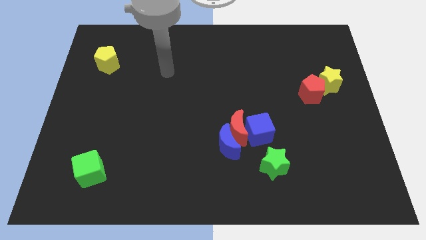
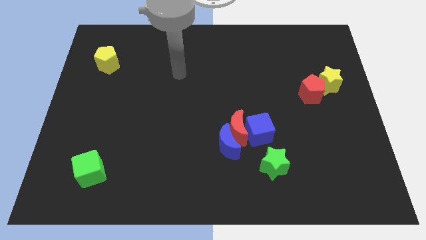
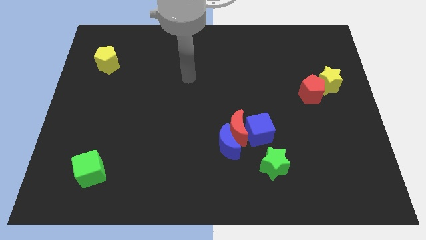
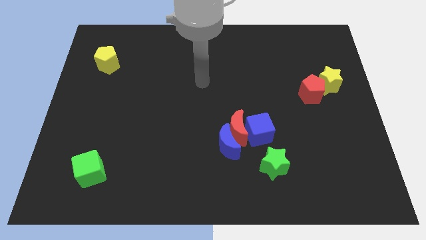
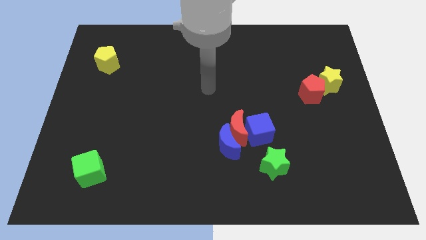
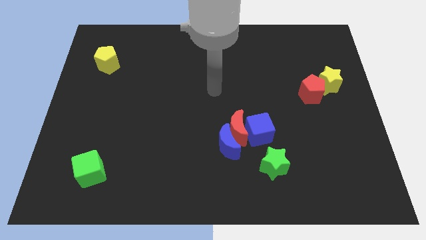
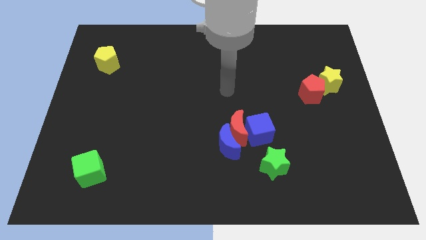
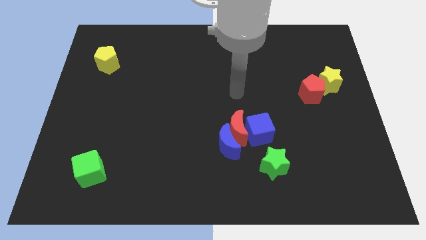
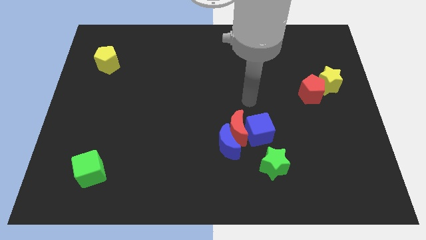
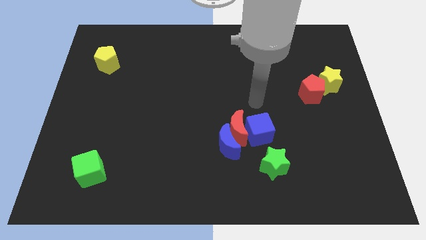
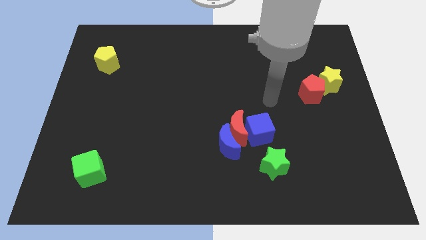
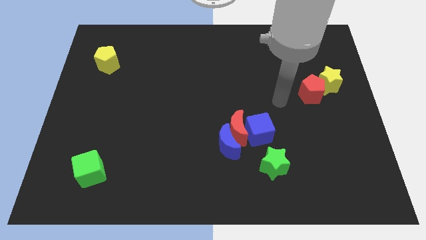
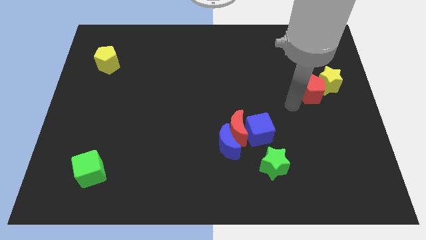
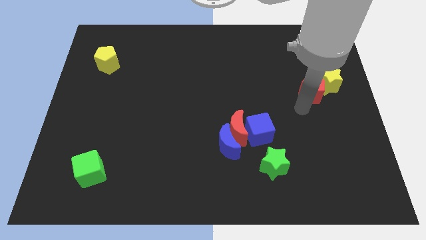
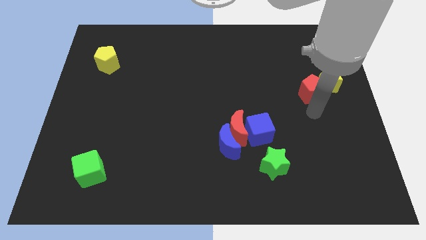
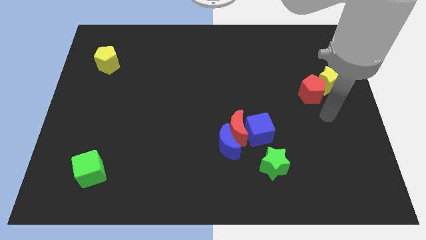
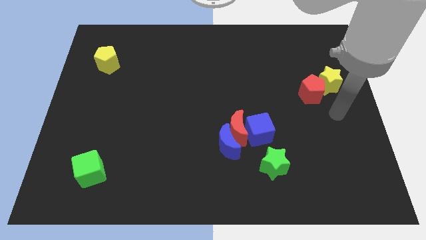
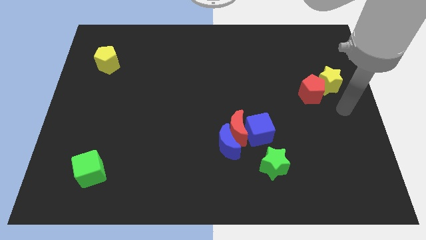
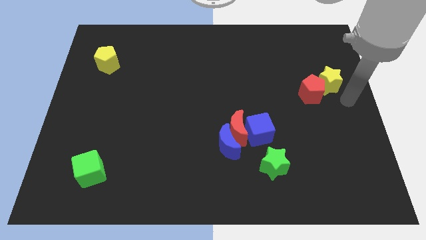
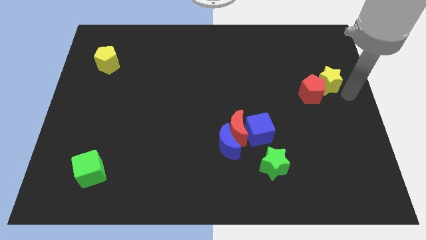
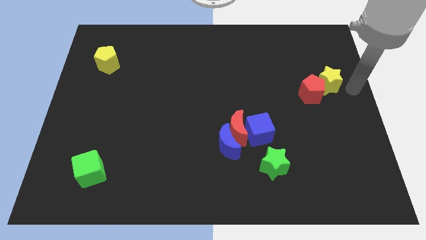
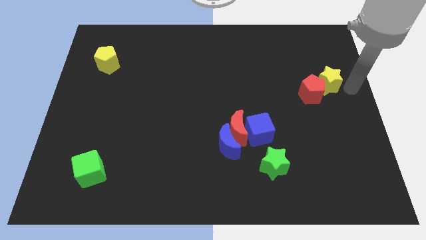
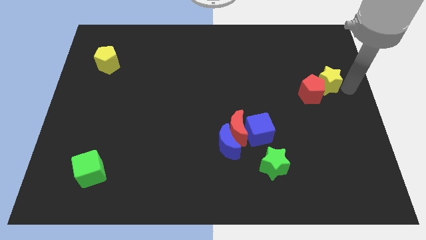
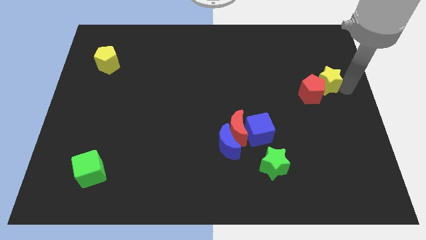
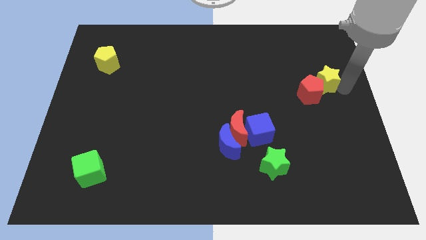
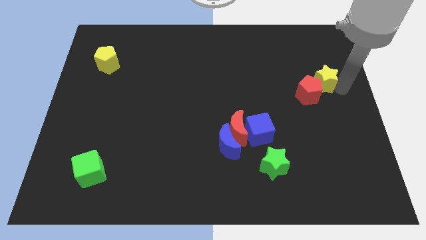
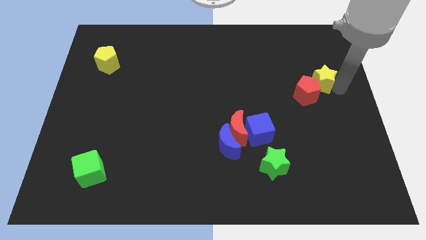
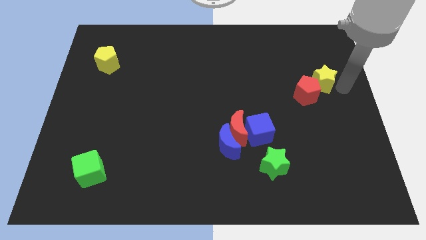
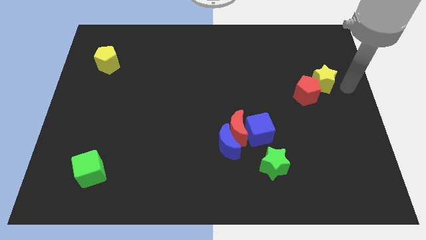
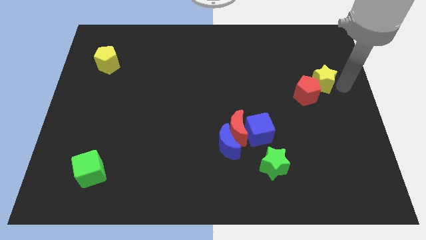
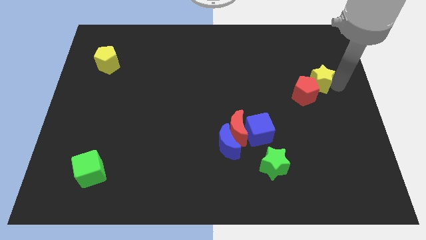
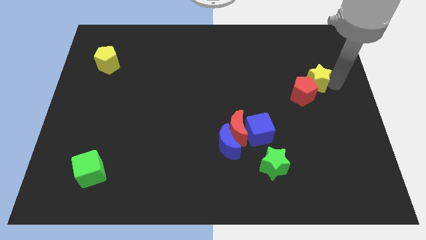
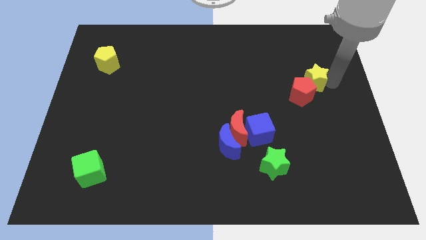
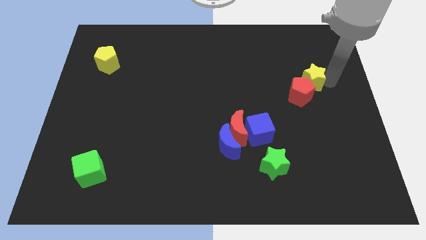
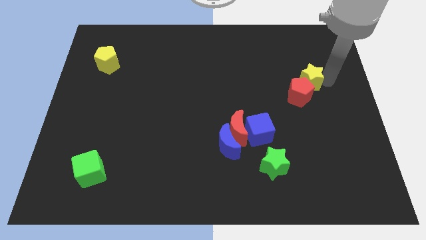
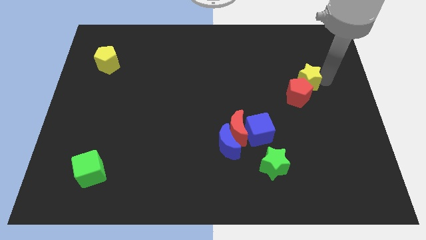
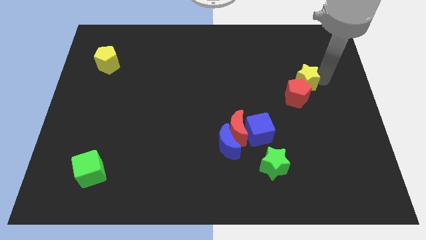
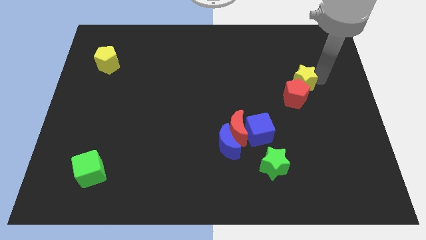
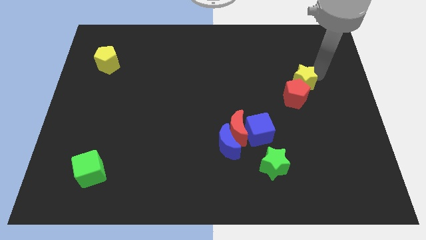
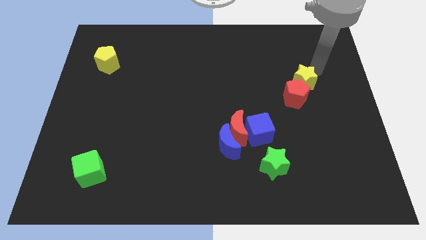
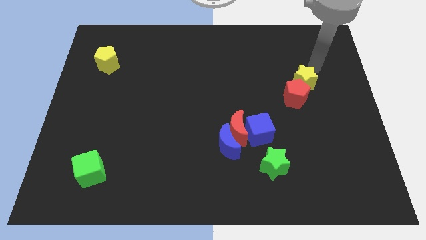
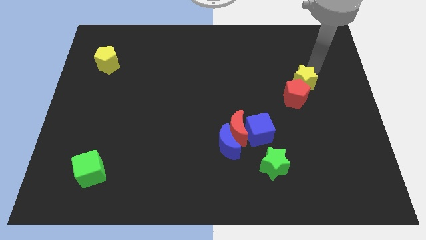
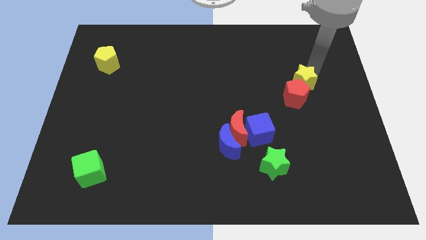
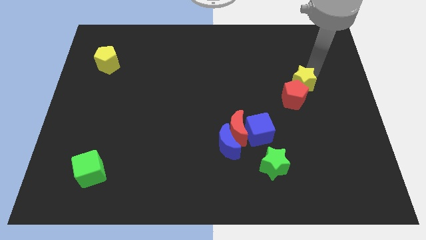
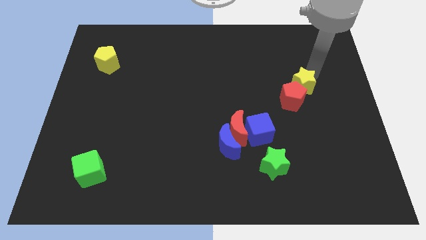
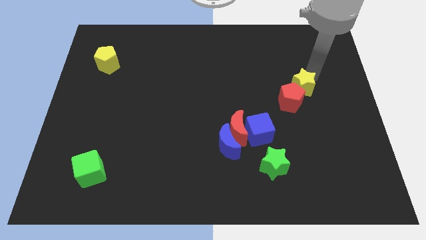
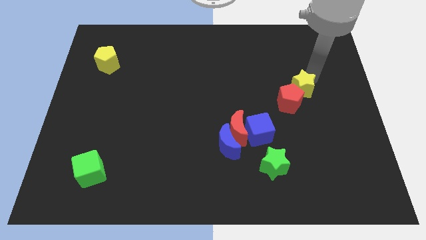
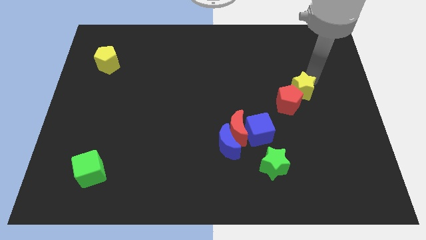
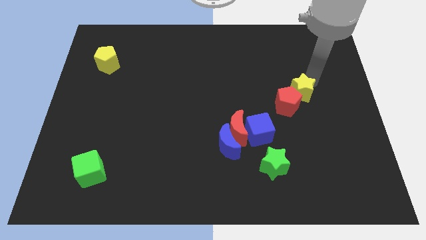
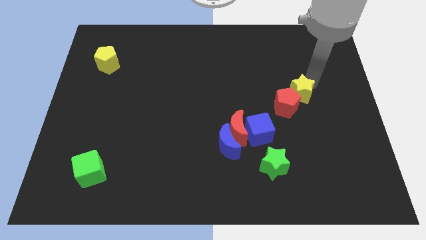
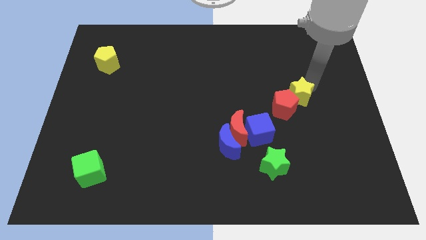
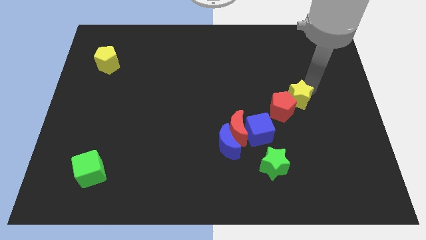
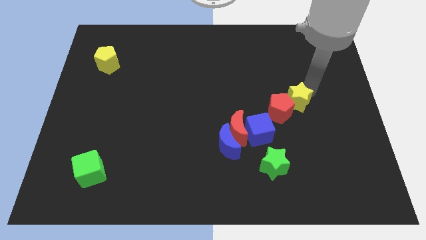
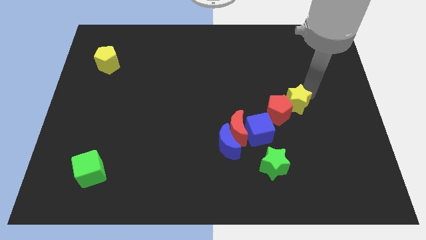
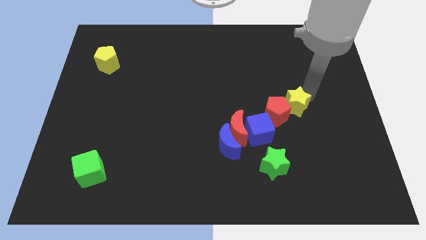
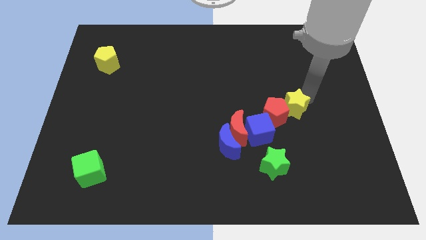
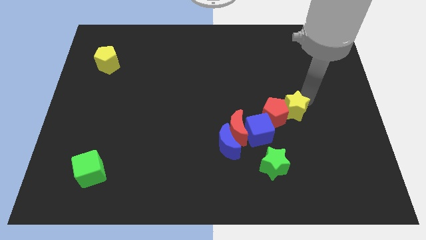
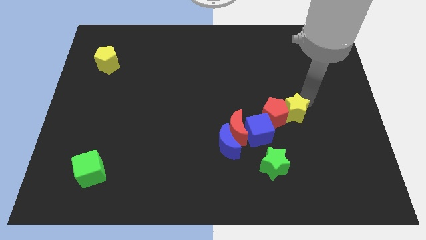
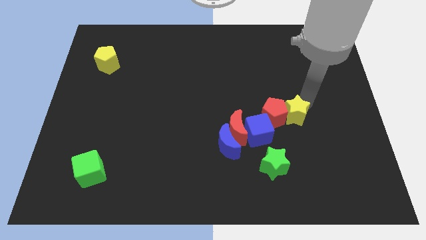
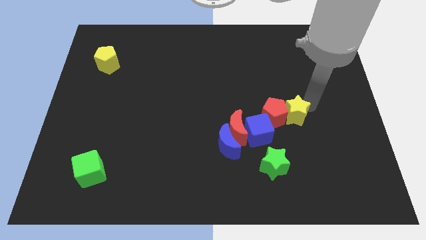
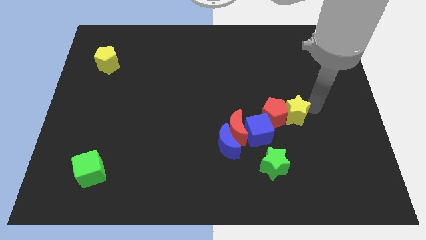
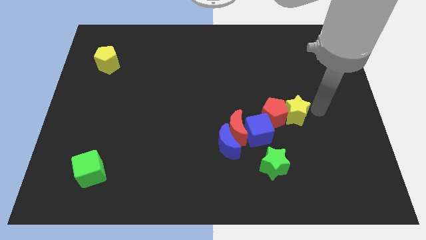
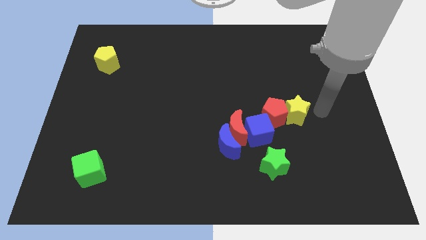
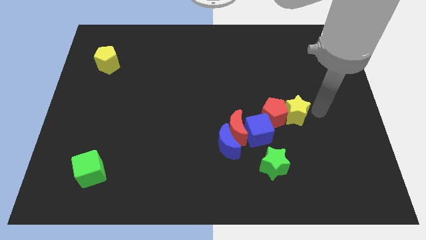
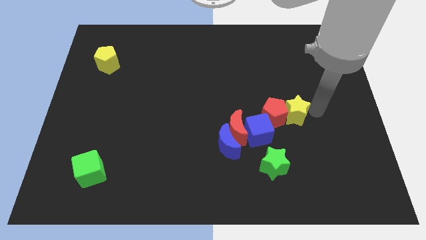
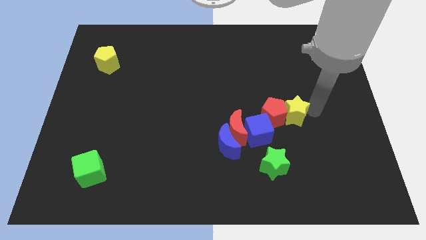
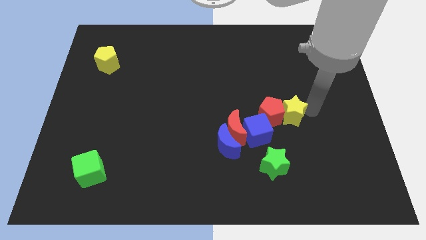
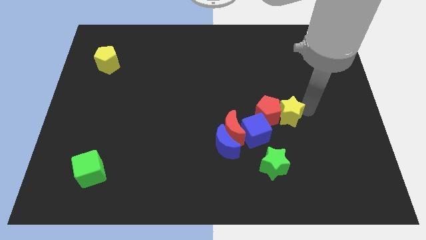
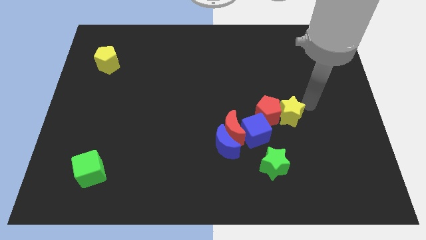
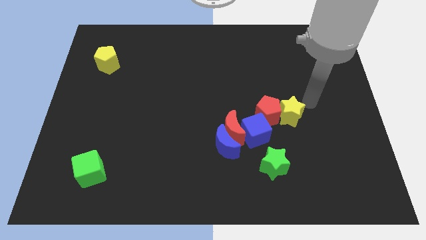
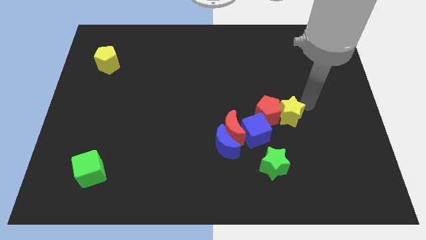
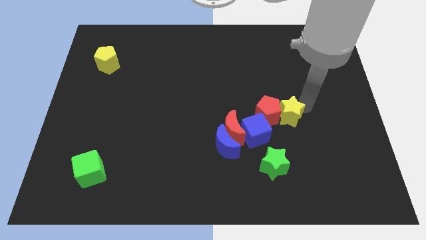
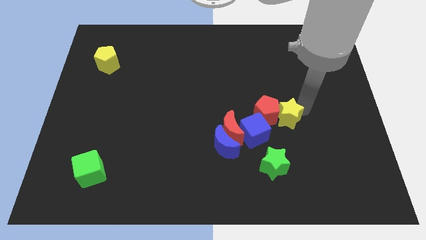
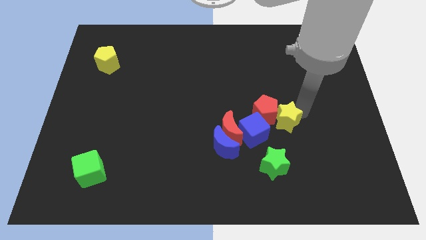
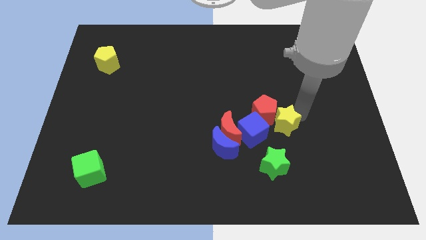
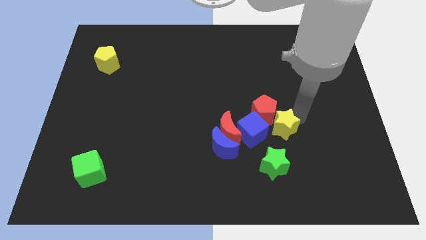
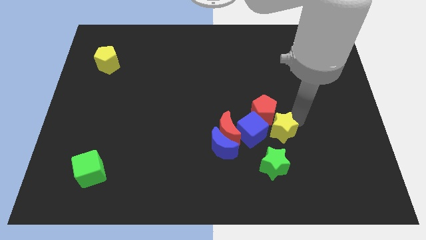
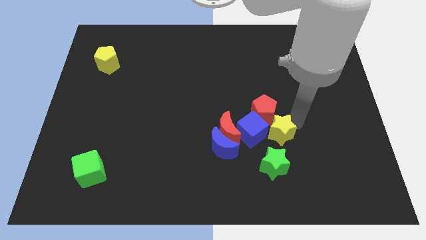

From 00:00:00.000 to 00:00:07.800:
slide the yellow star close to the blue cube
